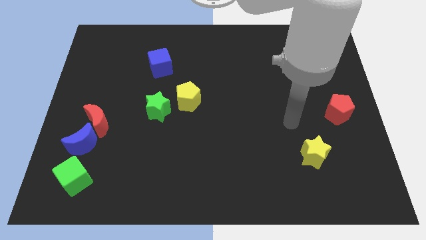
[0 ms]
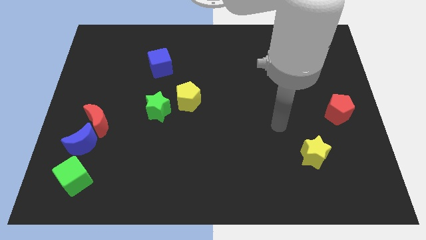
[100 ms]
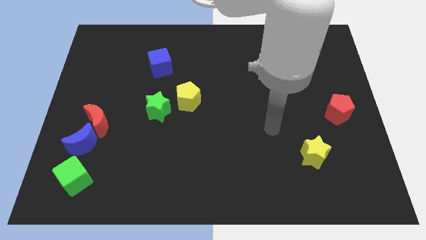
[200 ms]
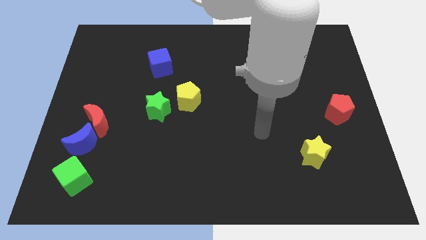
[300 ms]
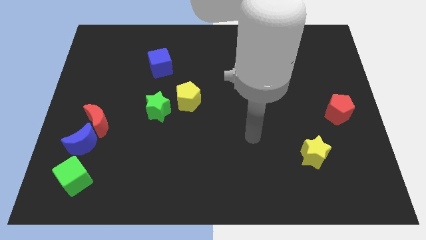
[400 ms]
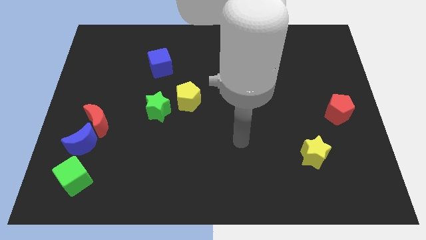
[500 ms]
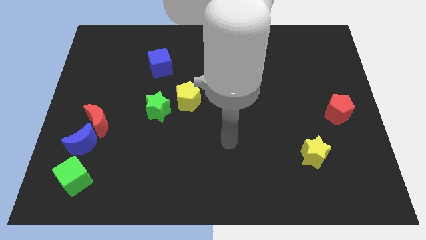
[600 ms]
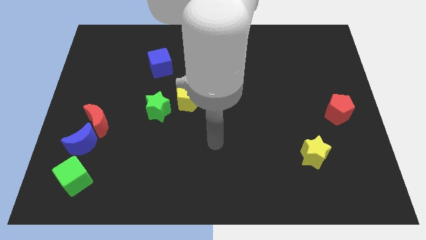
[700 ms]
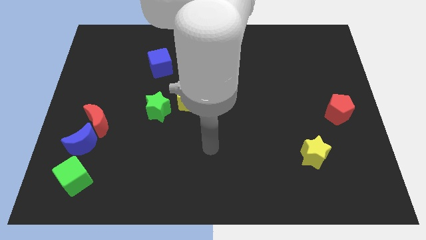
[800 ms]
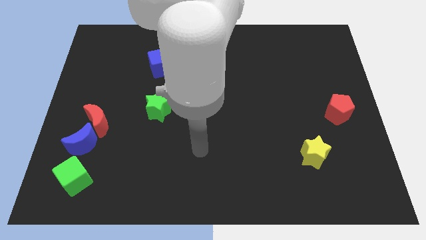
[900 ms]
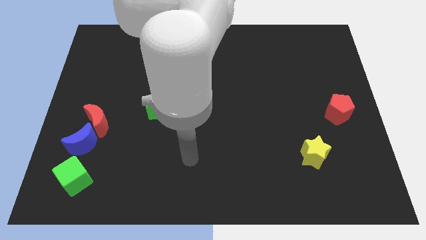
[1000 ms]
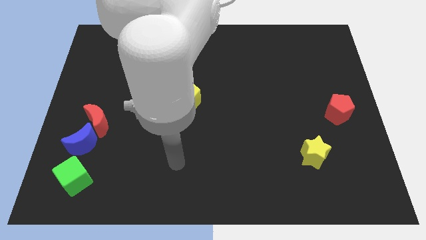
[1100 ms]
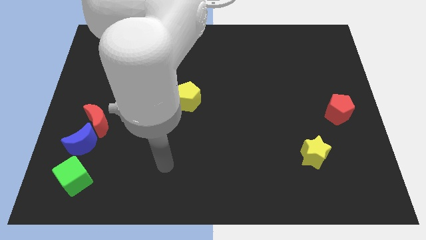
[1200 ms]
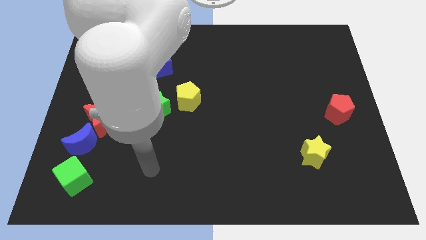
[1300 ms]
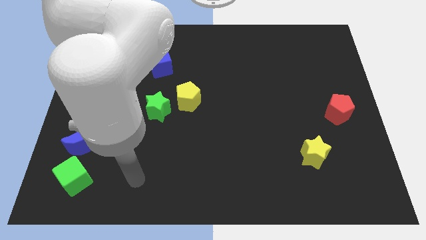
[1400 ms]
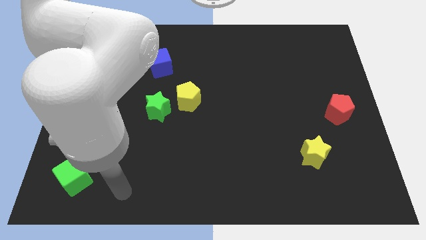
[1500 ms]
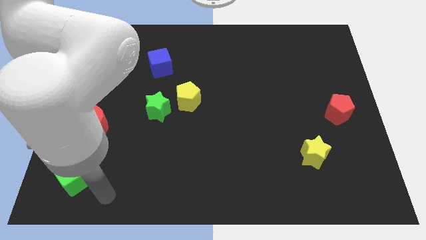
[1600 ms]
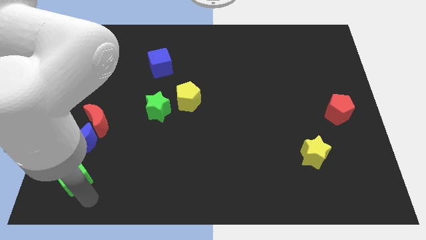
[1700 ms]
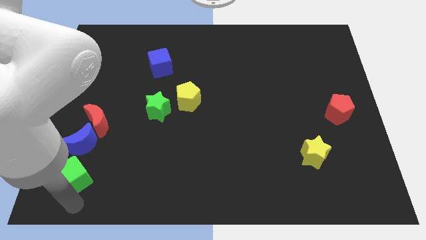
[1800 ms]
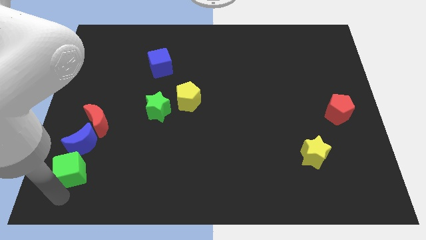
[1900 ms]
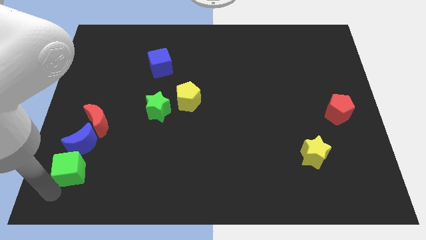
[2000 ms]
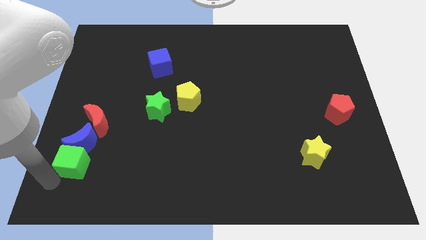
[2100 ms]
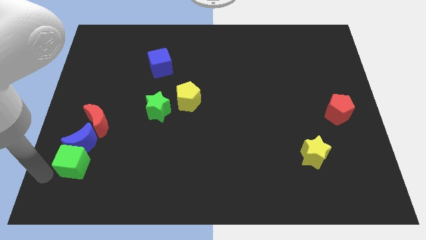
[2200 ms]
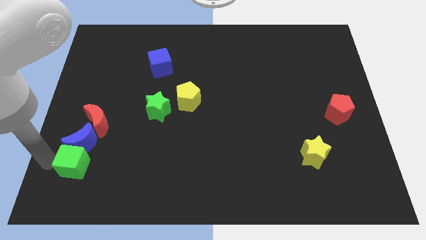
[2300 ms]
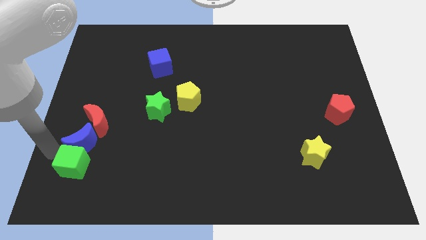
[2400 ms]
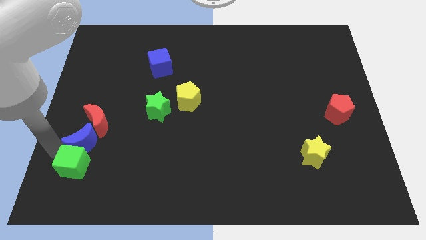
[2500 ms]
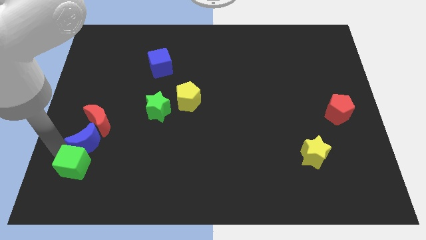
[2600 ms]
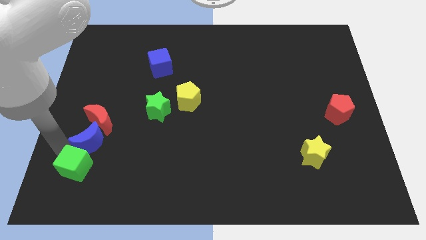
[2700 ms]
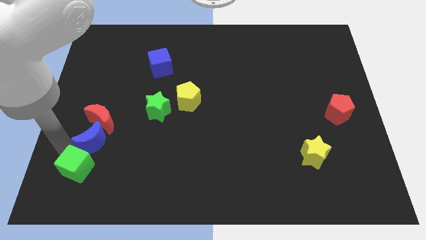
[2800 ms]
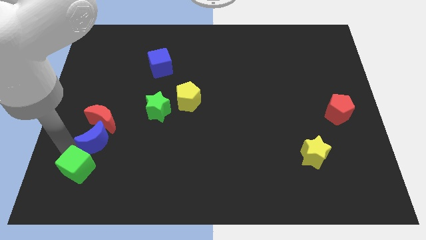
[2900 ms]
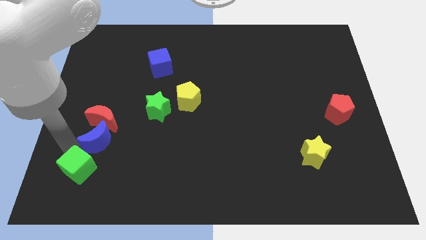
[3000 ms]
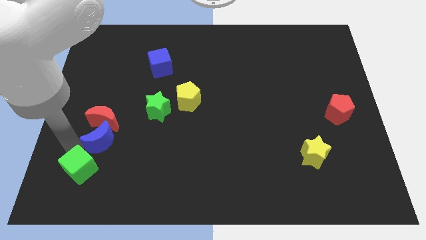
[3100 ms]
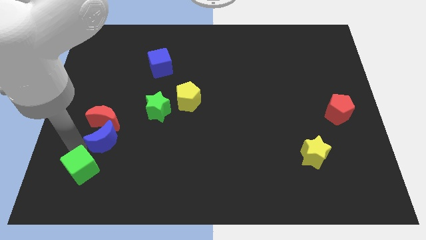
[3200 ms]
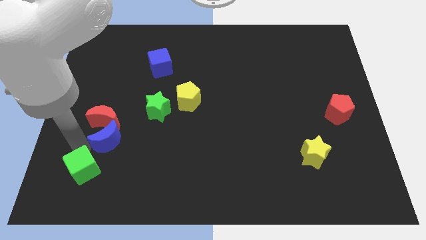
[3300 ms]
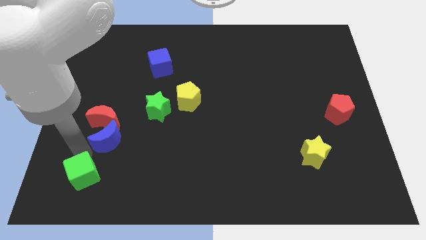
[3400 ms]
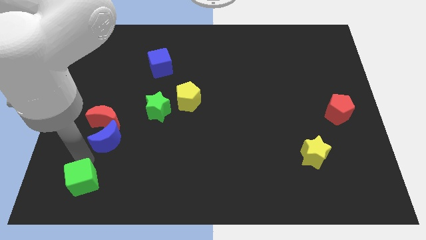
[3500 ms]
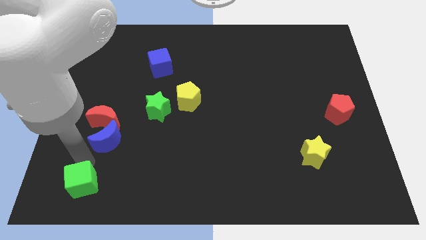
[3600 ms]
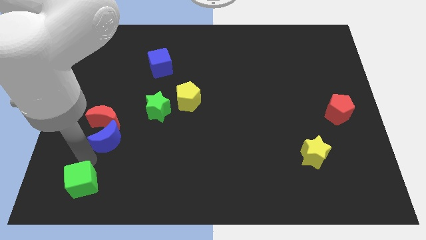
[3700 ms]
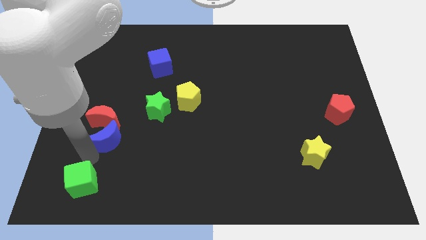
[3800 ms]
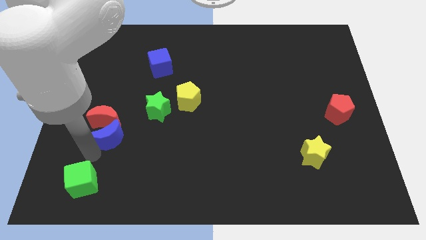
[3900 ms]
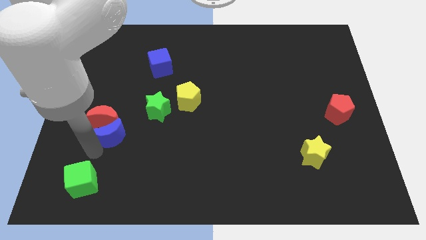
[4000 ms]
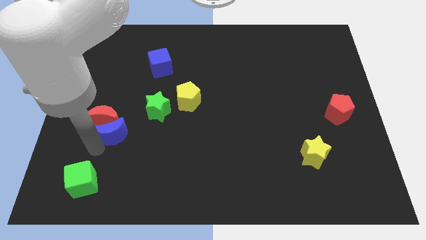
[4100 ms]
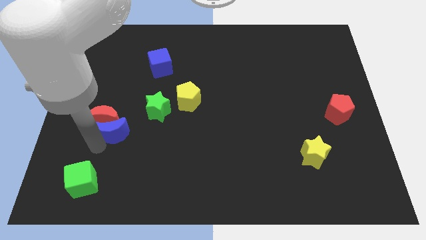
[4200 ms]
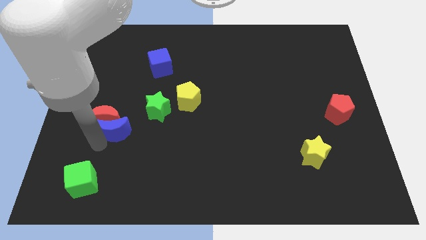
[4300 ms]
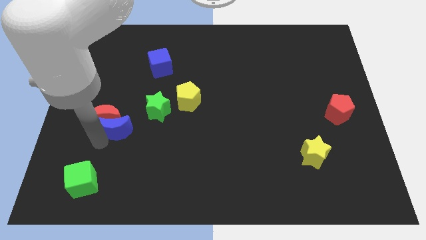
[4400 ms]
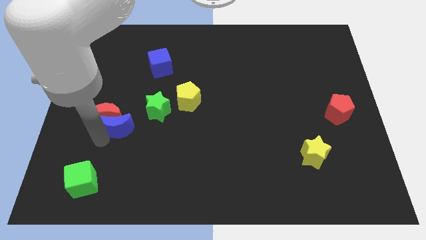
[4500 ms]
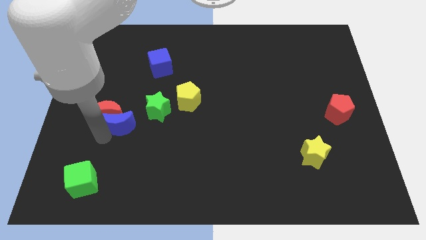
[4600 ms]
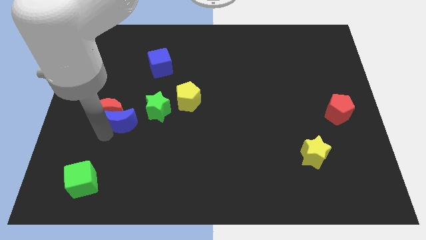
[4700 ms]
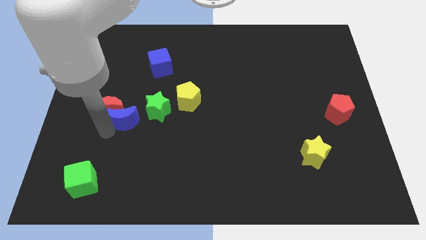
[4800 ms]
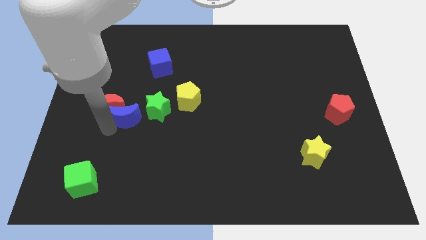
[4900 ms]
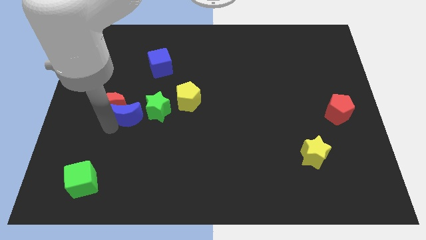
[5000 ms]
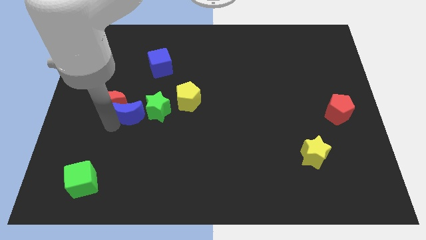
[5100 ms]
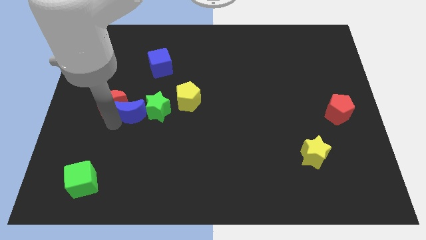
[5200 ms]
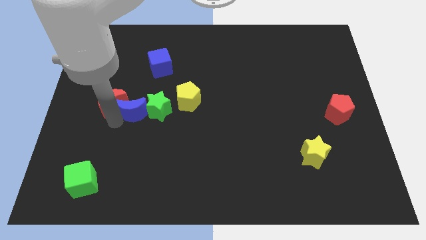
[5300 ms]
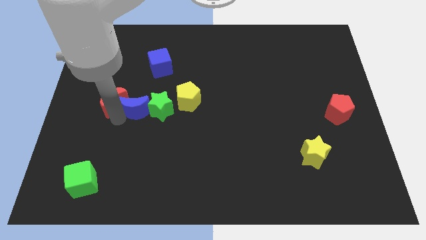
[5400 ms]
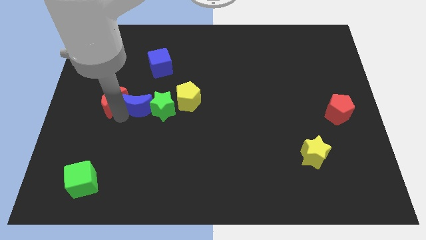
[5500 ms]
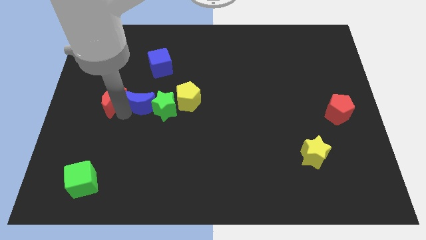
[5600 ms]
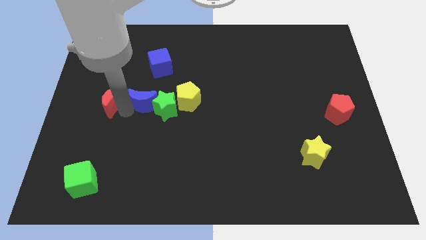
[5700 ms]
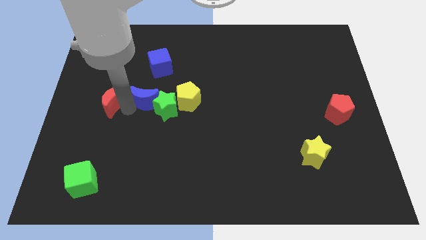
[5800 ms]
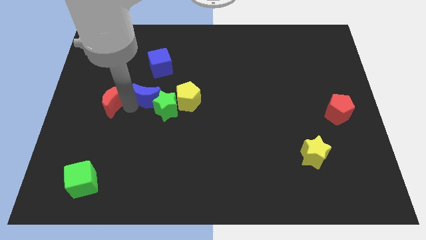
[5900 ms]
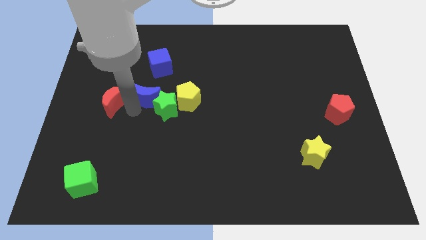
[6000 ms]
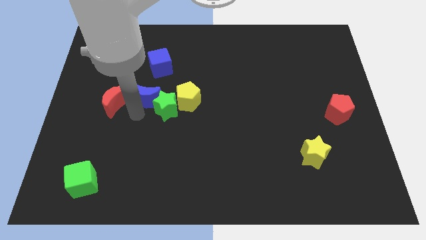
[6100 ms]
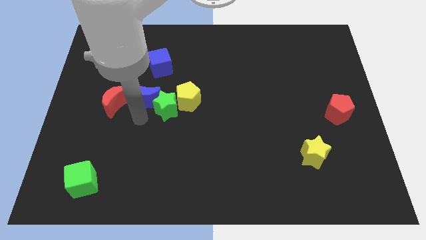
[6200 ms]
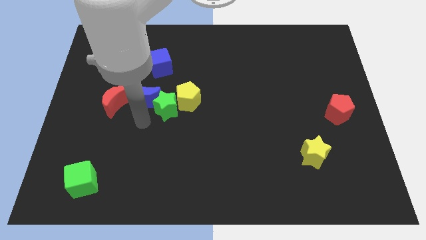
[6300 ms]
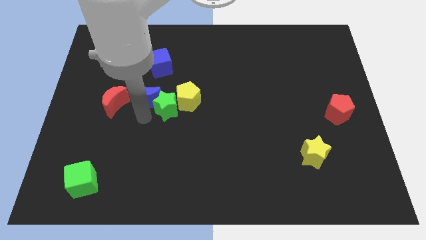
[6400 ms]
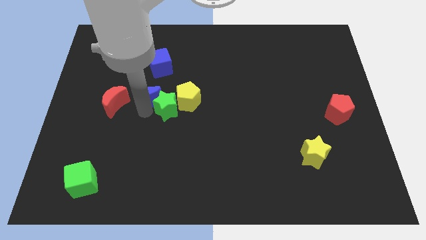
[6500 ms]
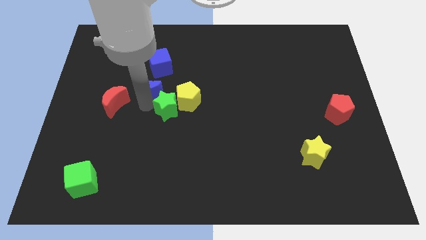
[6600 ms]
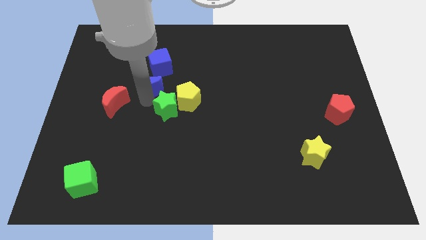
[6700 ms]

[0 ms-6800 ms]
slide the blue moon up and right diagonally

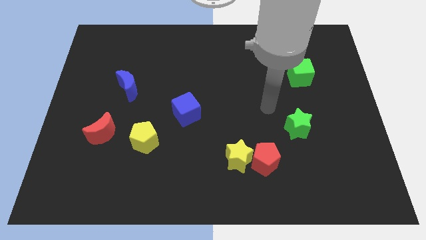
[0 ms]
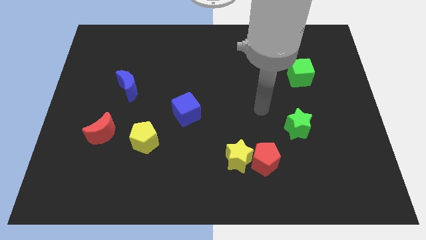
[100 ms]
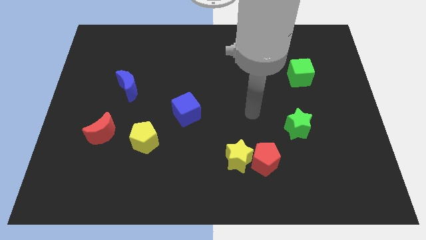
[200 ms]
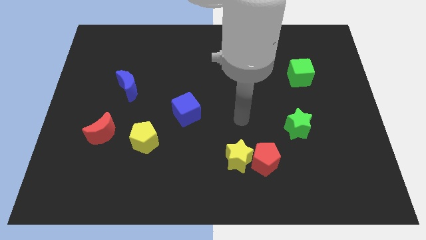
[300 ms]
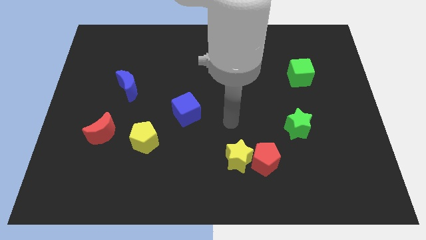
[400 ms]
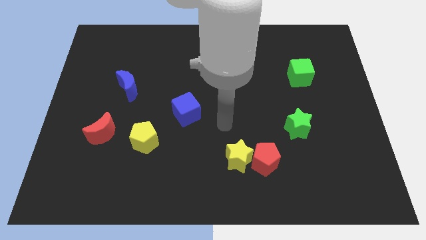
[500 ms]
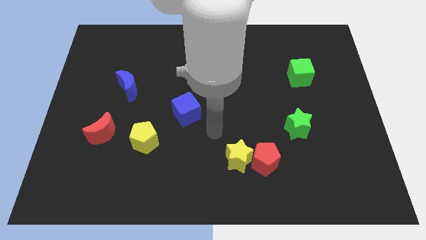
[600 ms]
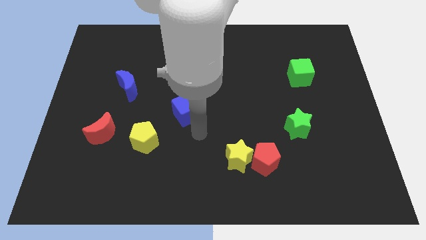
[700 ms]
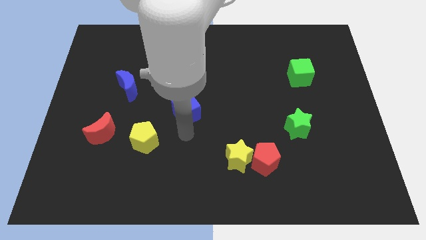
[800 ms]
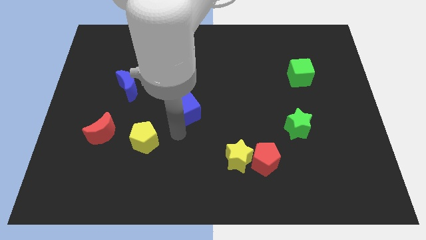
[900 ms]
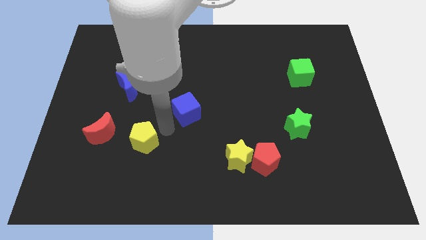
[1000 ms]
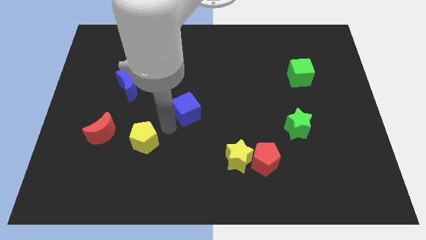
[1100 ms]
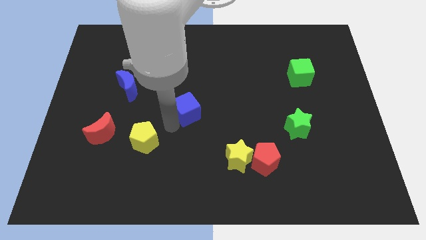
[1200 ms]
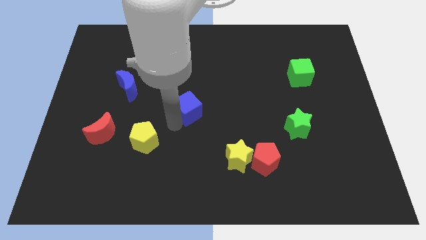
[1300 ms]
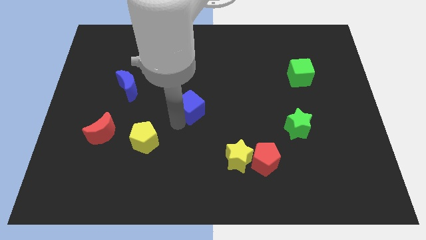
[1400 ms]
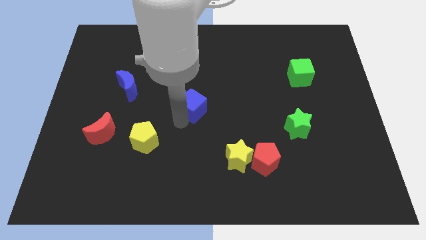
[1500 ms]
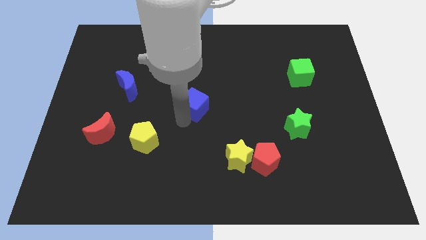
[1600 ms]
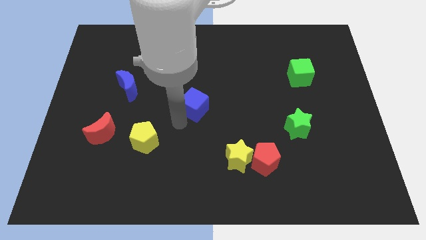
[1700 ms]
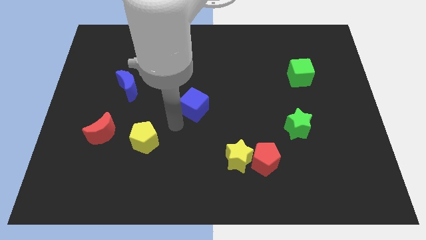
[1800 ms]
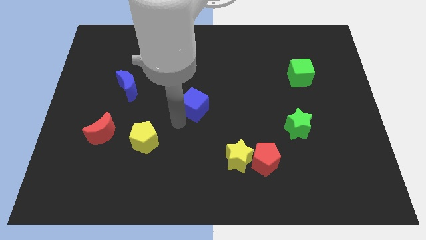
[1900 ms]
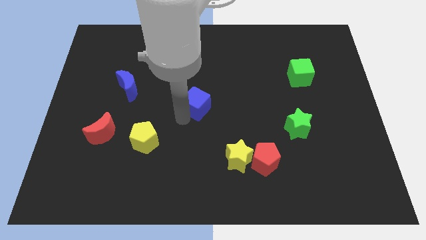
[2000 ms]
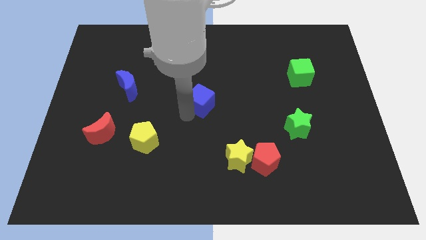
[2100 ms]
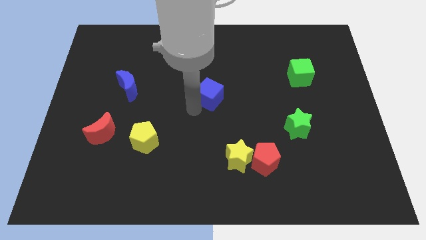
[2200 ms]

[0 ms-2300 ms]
push the blue cube up and then to the right a little
